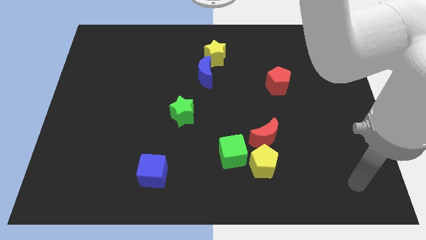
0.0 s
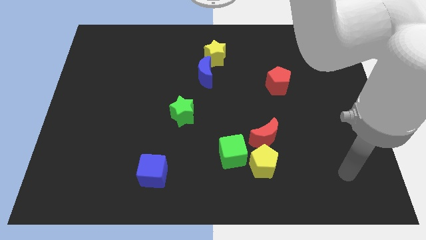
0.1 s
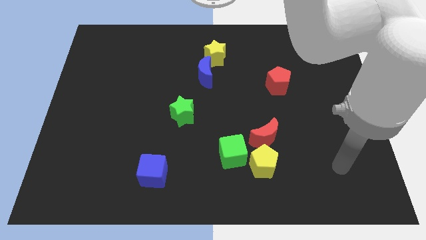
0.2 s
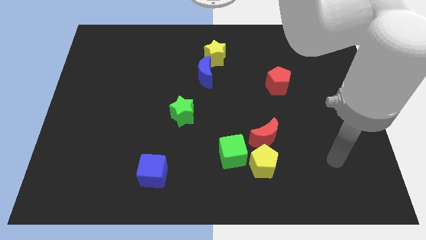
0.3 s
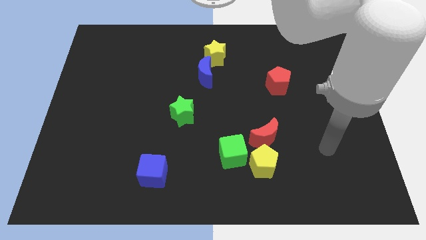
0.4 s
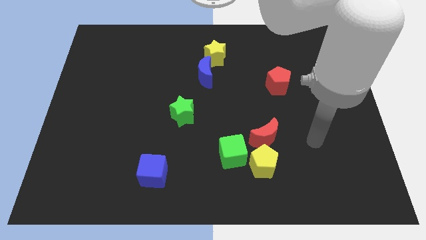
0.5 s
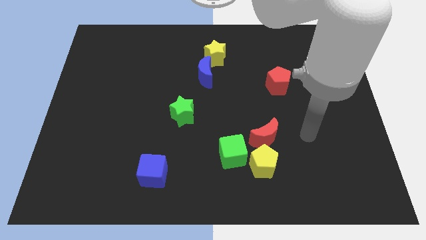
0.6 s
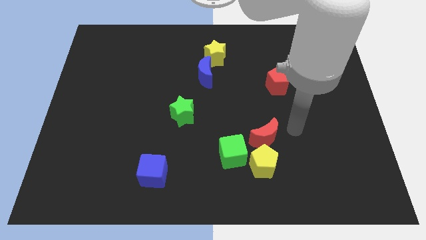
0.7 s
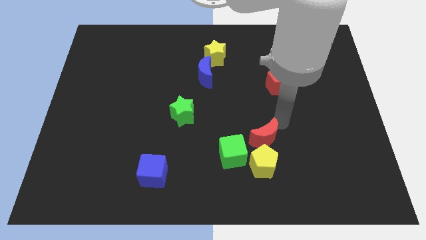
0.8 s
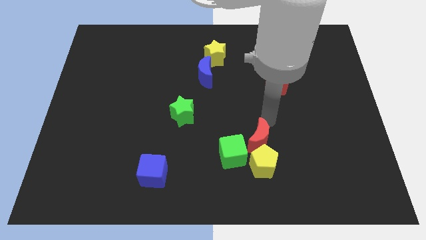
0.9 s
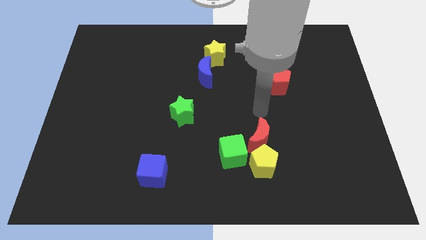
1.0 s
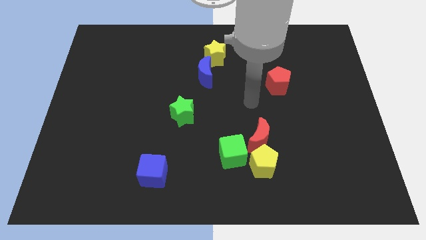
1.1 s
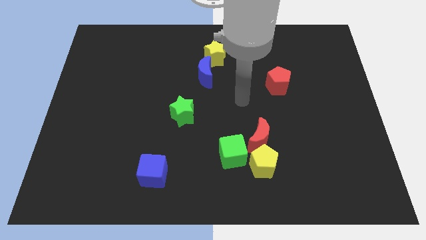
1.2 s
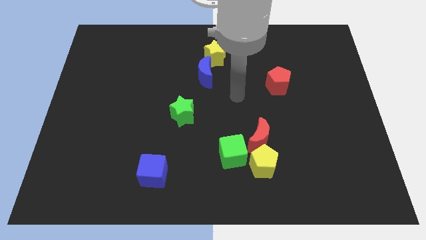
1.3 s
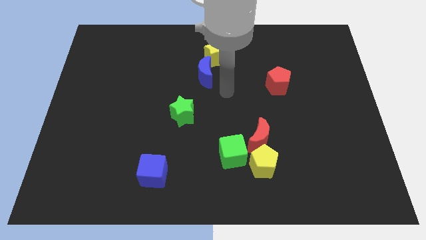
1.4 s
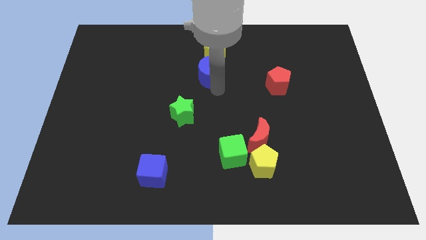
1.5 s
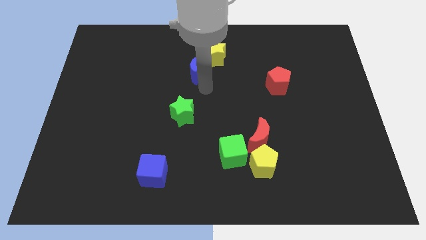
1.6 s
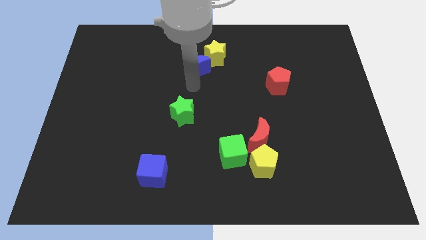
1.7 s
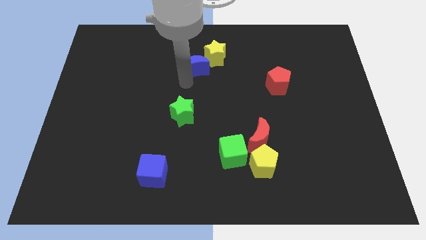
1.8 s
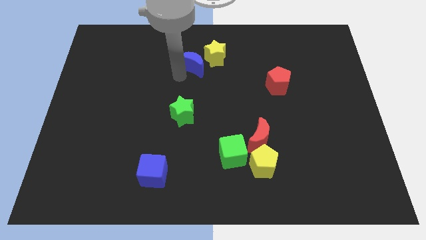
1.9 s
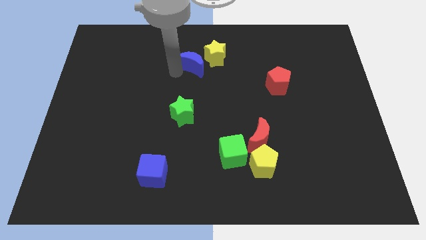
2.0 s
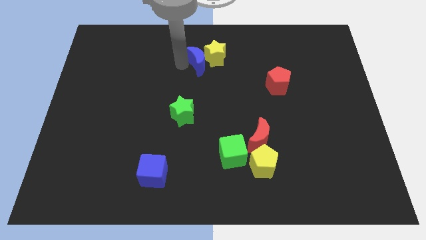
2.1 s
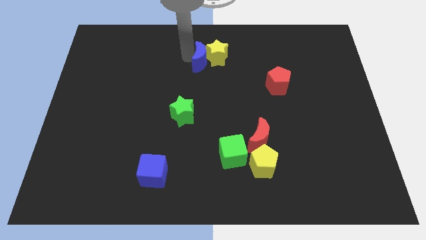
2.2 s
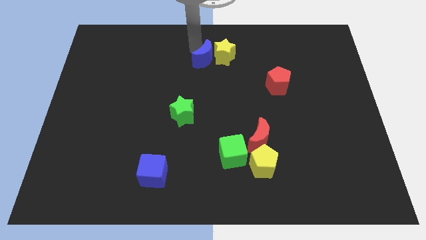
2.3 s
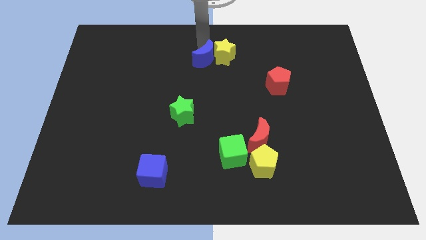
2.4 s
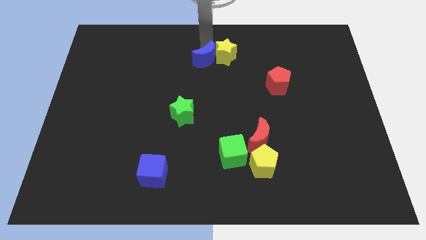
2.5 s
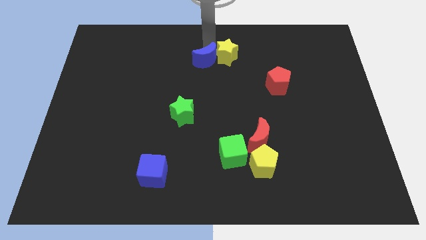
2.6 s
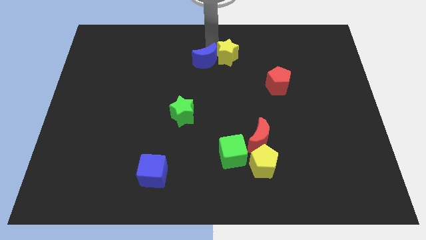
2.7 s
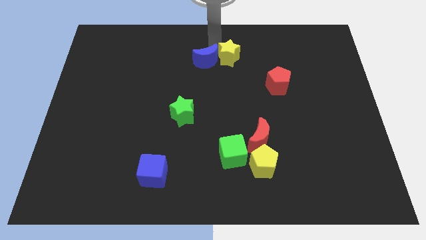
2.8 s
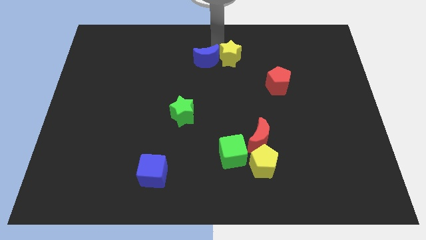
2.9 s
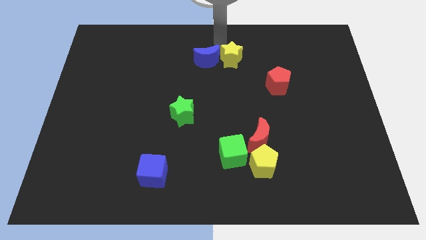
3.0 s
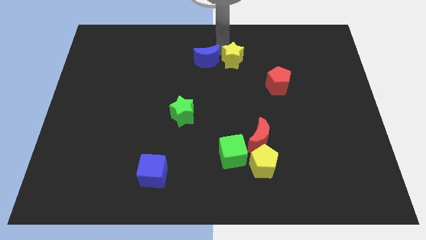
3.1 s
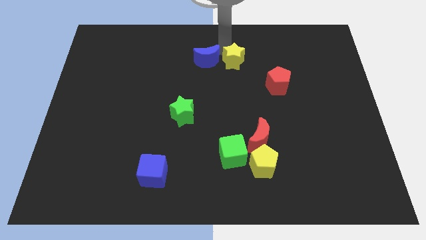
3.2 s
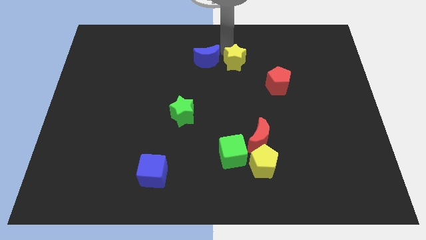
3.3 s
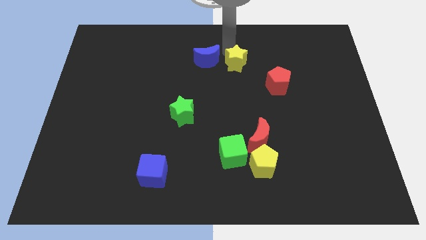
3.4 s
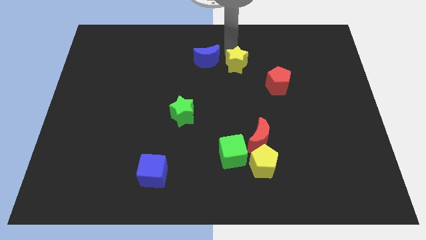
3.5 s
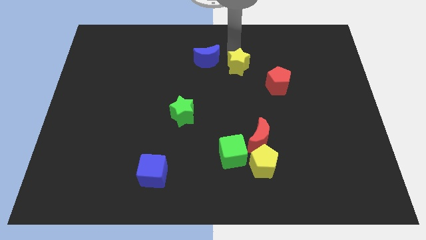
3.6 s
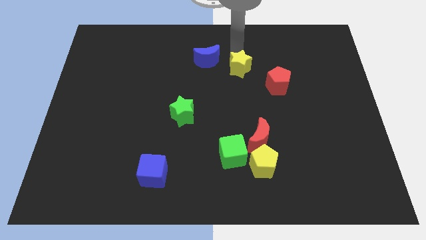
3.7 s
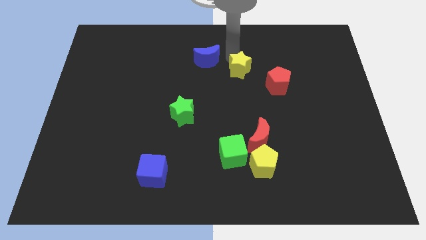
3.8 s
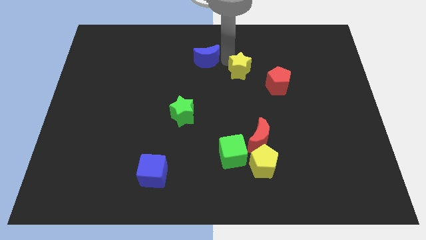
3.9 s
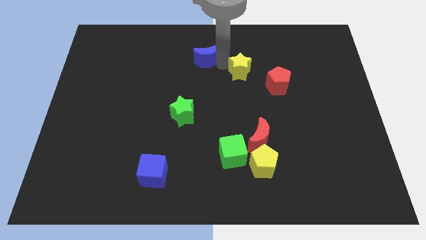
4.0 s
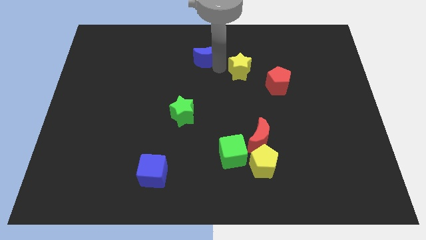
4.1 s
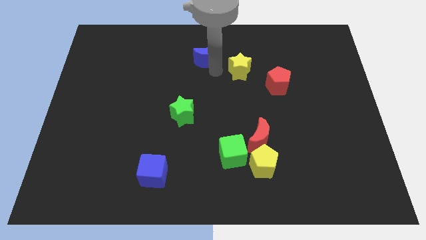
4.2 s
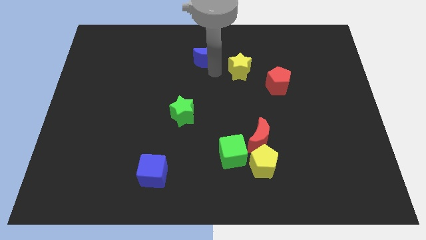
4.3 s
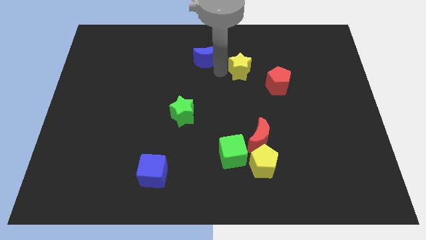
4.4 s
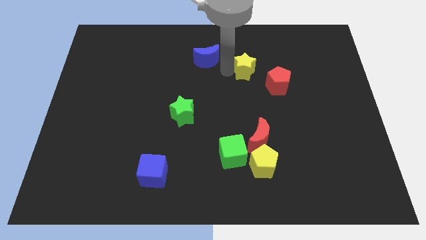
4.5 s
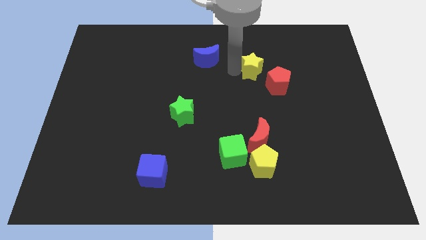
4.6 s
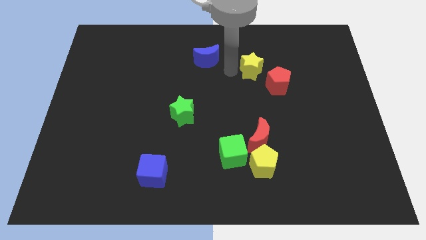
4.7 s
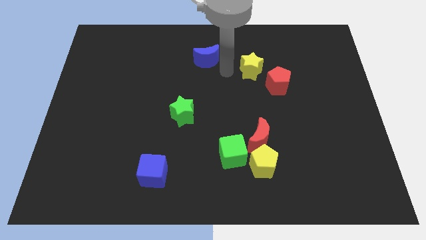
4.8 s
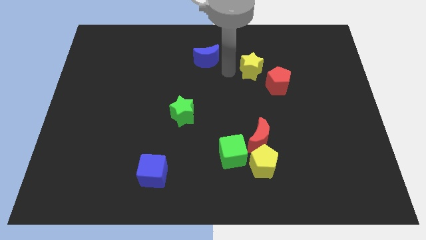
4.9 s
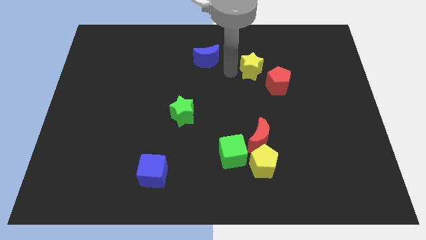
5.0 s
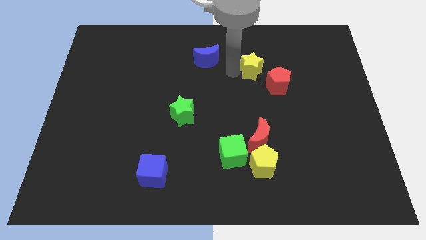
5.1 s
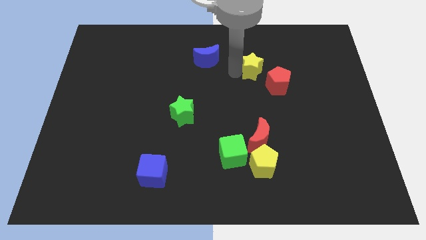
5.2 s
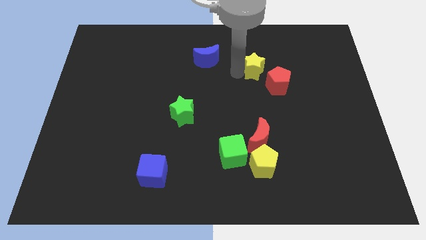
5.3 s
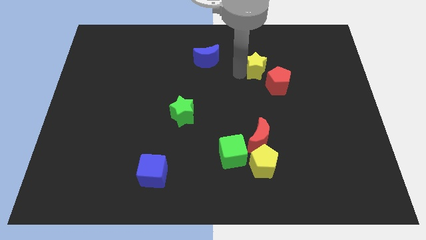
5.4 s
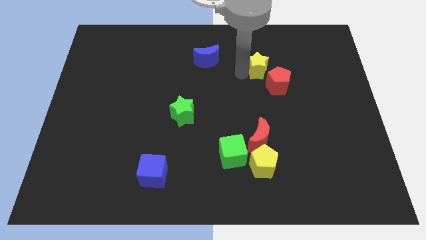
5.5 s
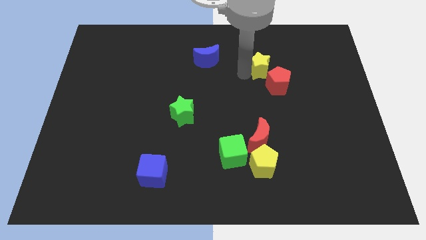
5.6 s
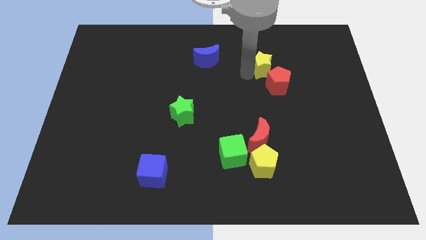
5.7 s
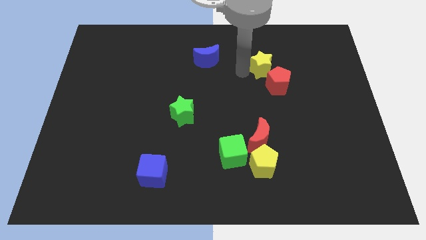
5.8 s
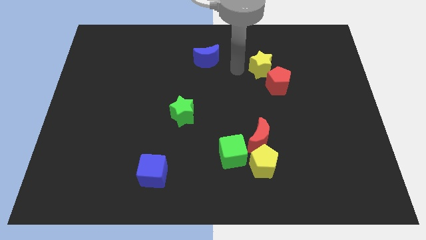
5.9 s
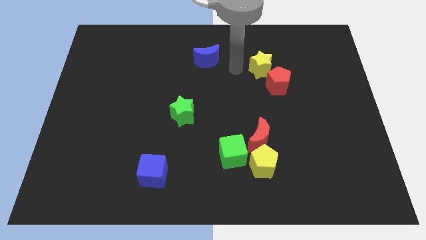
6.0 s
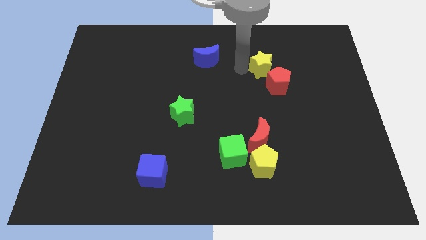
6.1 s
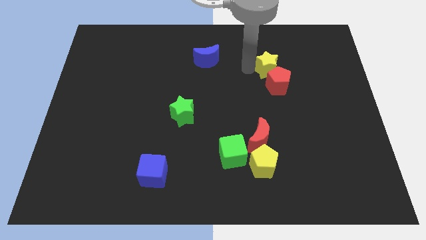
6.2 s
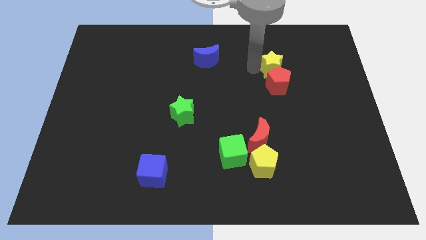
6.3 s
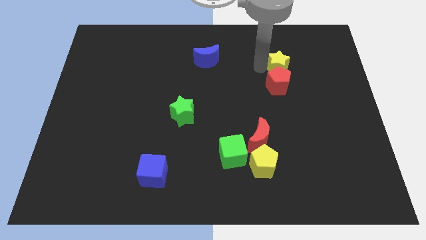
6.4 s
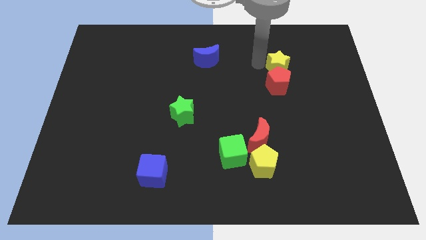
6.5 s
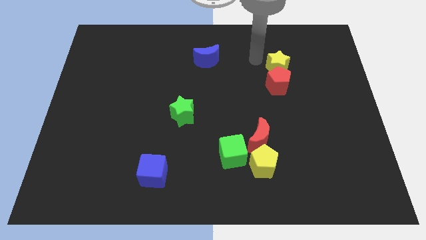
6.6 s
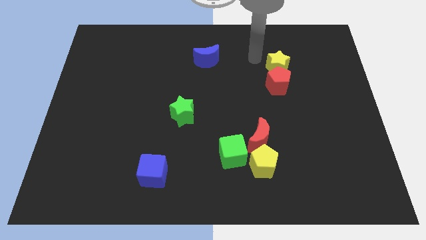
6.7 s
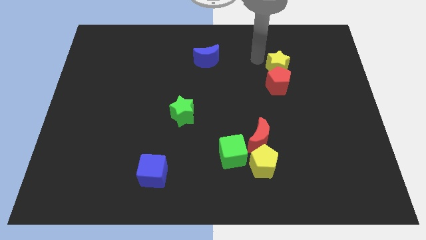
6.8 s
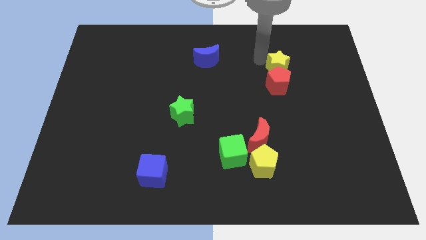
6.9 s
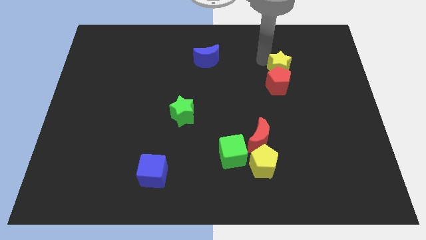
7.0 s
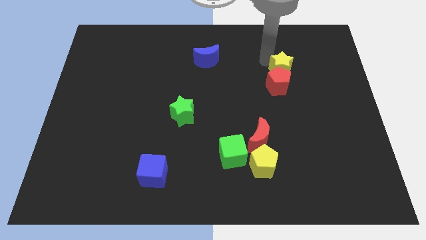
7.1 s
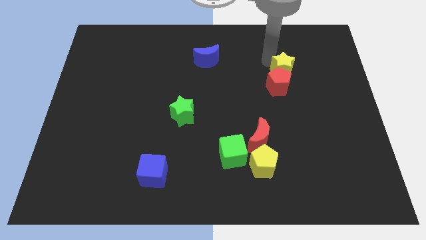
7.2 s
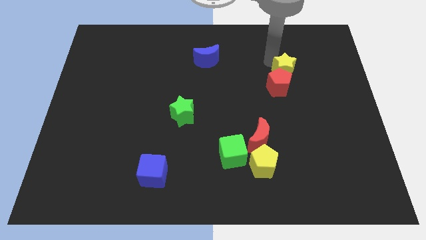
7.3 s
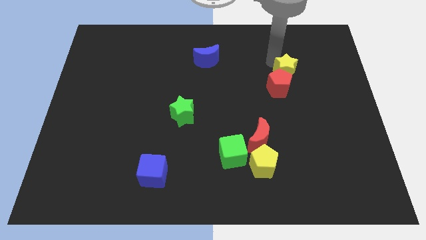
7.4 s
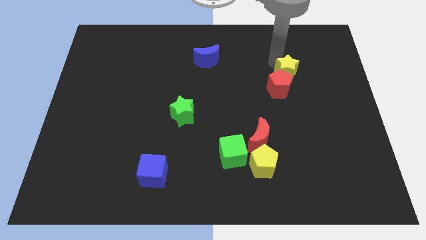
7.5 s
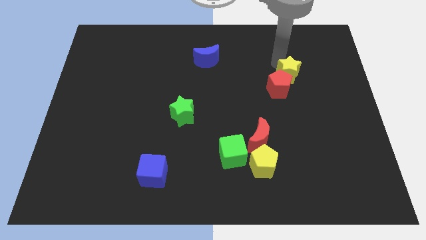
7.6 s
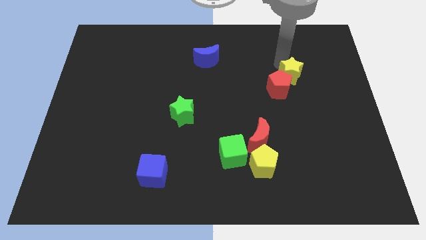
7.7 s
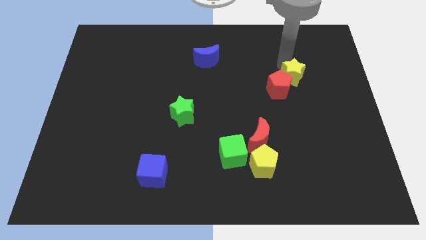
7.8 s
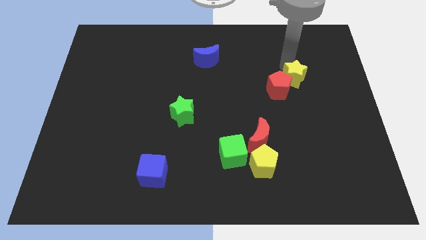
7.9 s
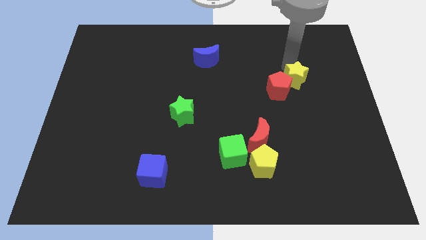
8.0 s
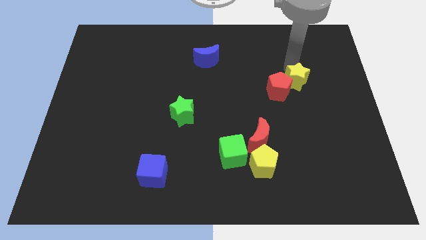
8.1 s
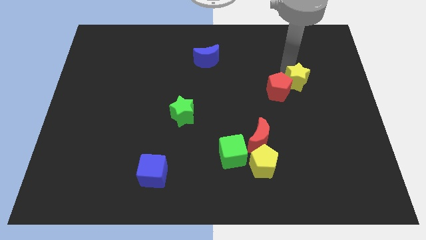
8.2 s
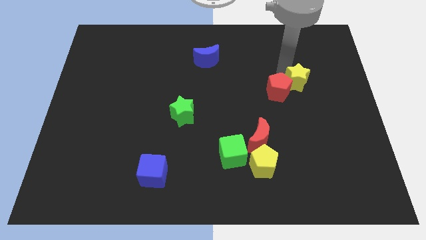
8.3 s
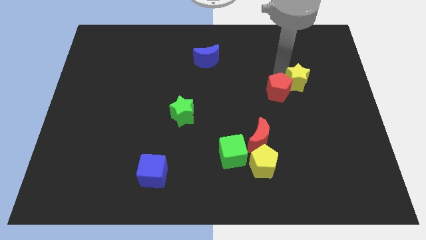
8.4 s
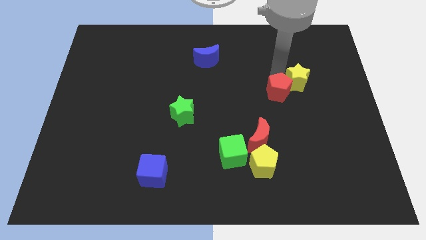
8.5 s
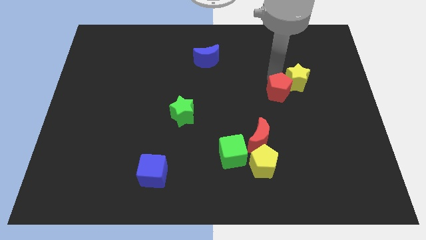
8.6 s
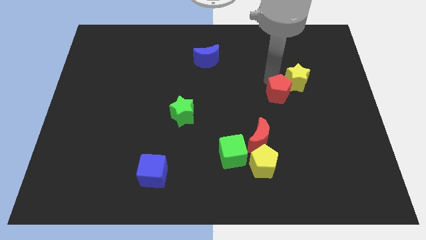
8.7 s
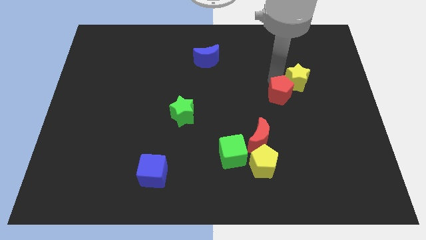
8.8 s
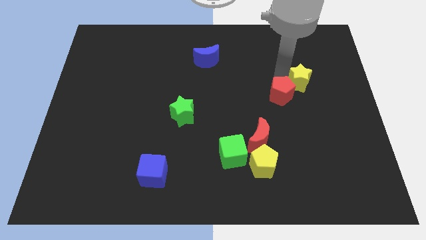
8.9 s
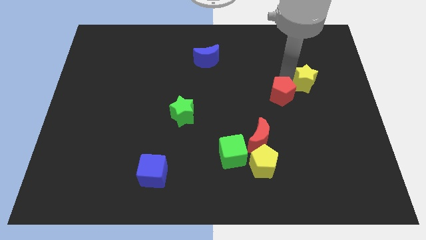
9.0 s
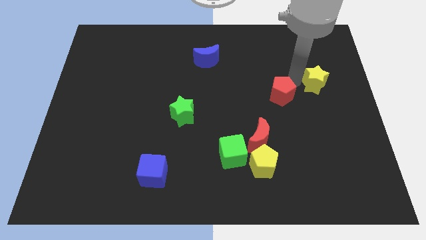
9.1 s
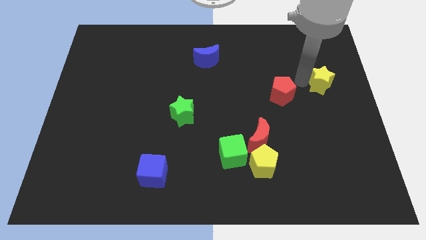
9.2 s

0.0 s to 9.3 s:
slide the yellow star to the right side of the board
